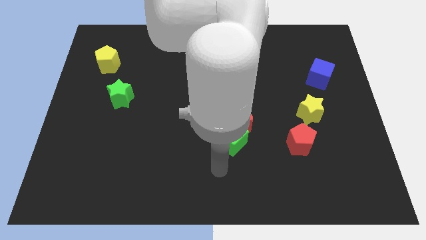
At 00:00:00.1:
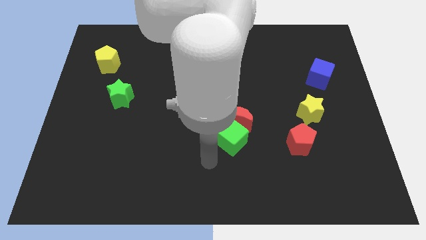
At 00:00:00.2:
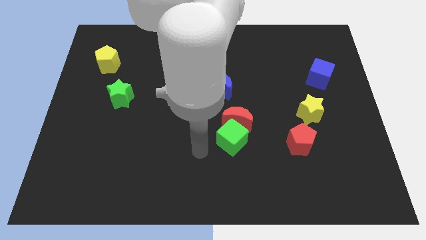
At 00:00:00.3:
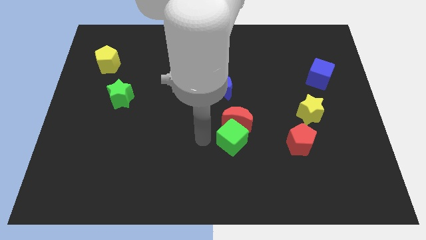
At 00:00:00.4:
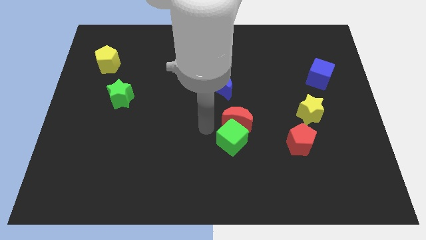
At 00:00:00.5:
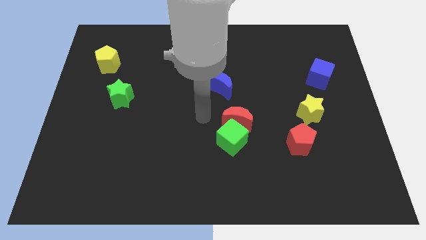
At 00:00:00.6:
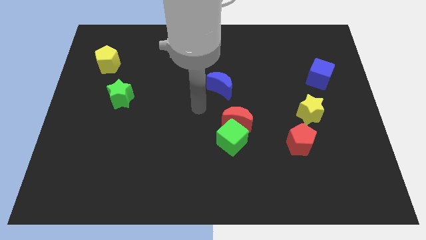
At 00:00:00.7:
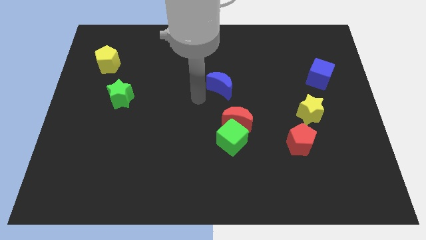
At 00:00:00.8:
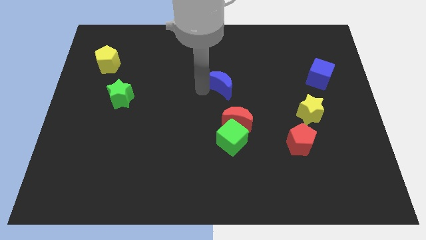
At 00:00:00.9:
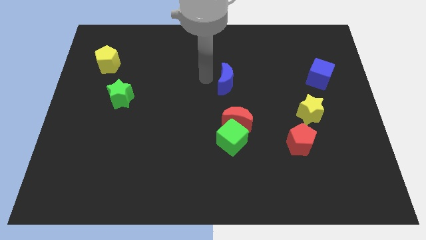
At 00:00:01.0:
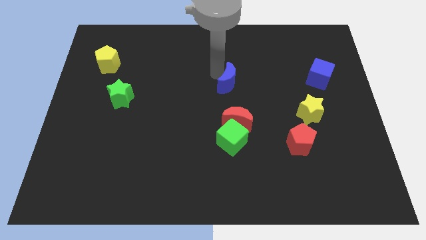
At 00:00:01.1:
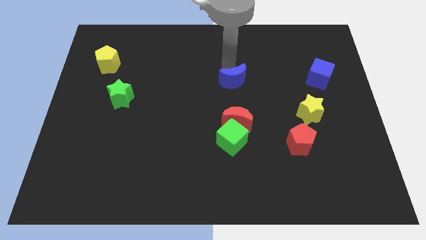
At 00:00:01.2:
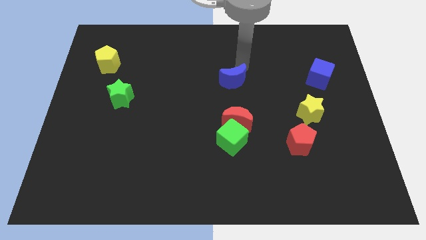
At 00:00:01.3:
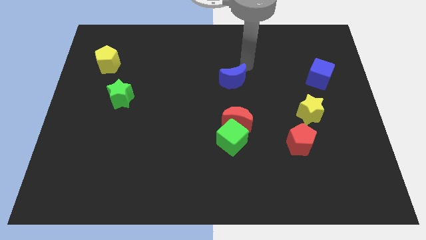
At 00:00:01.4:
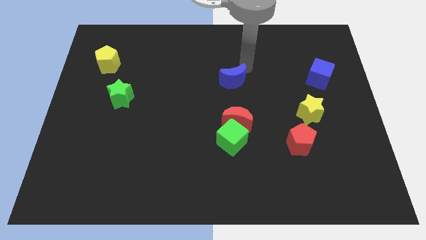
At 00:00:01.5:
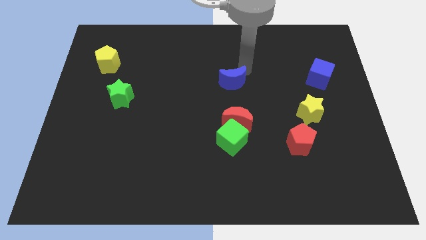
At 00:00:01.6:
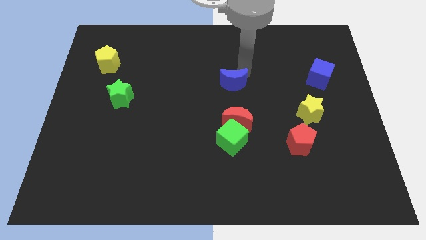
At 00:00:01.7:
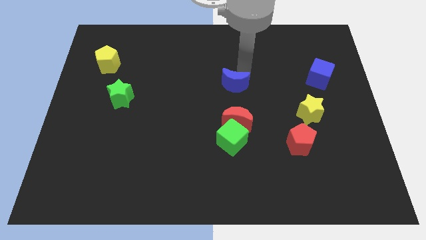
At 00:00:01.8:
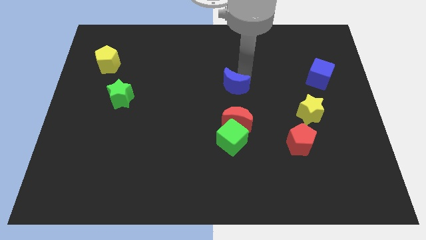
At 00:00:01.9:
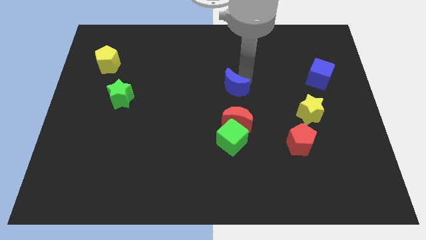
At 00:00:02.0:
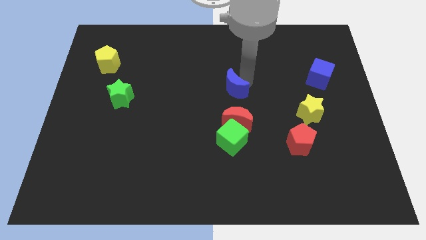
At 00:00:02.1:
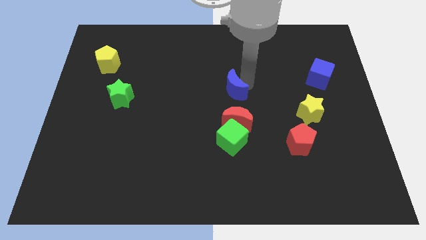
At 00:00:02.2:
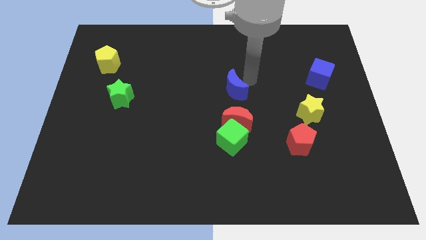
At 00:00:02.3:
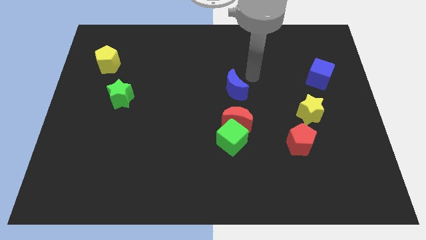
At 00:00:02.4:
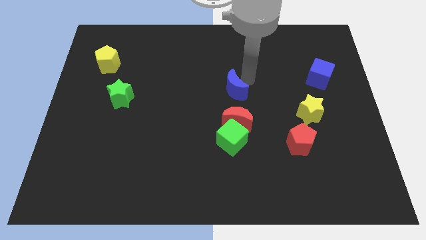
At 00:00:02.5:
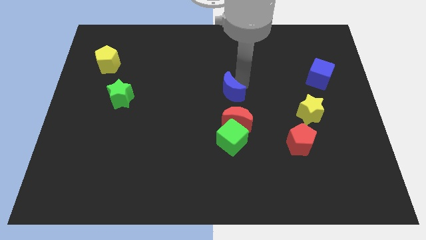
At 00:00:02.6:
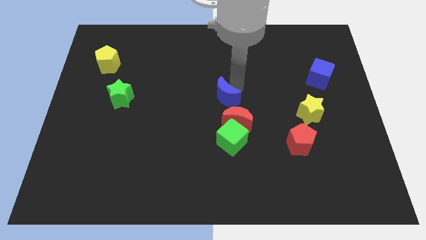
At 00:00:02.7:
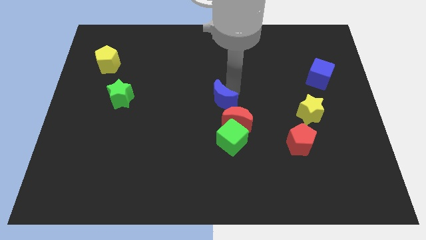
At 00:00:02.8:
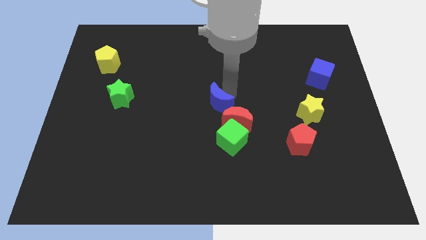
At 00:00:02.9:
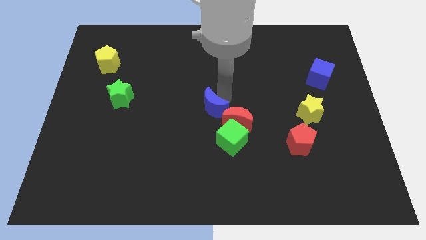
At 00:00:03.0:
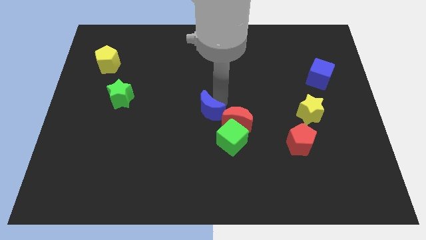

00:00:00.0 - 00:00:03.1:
slide the blue moon down a little

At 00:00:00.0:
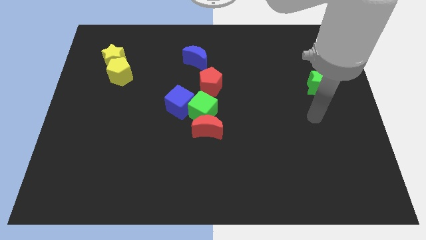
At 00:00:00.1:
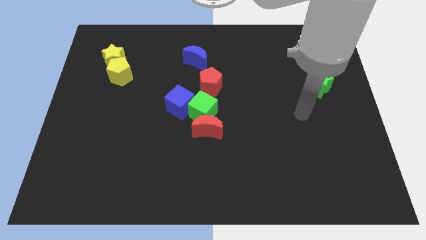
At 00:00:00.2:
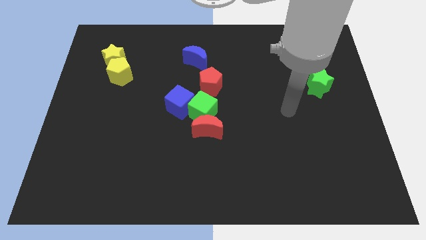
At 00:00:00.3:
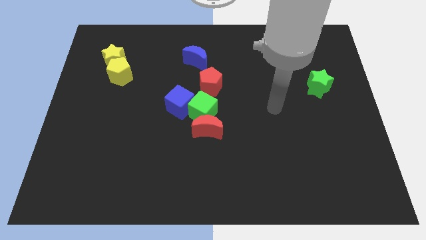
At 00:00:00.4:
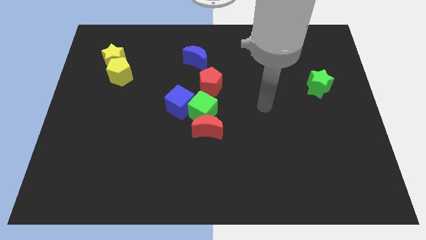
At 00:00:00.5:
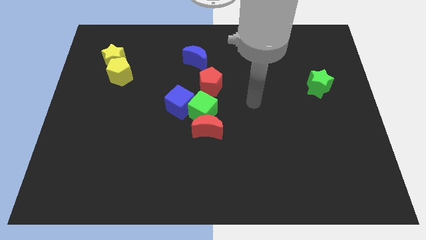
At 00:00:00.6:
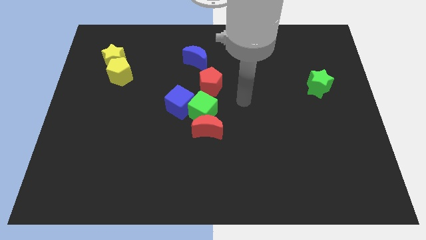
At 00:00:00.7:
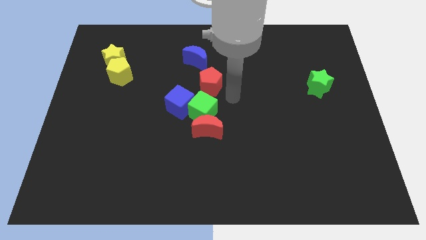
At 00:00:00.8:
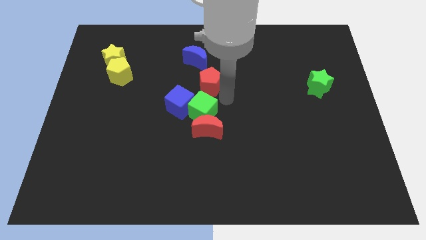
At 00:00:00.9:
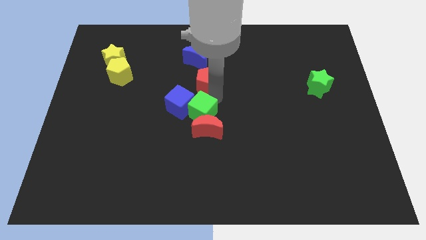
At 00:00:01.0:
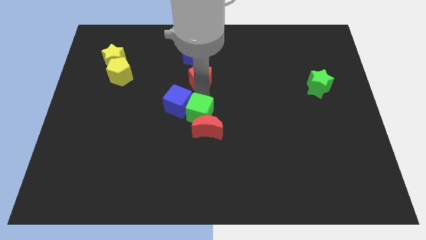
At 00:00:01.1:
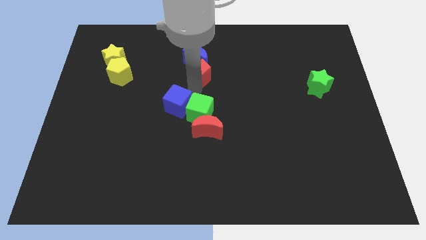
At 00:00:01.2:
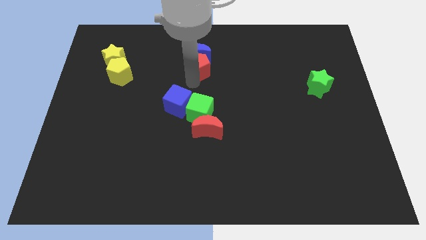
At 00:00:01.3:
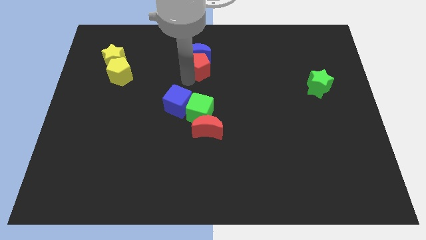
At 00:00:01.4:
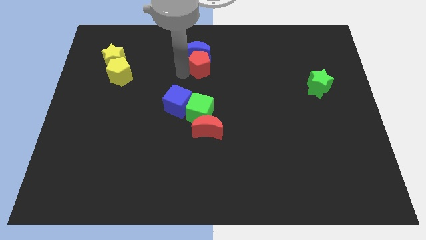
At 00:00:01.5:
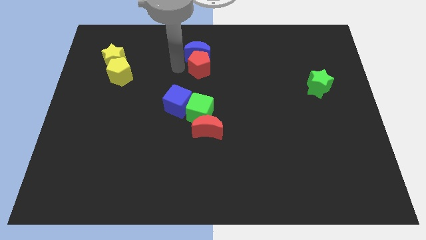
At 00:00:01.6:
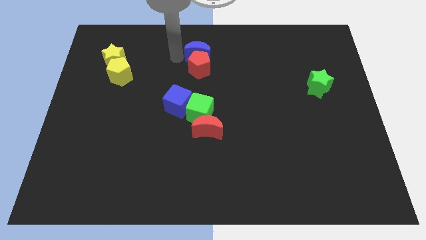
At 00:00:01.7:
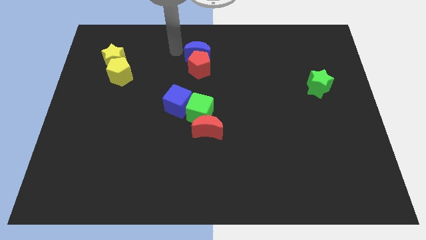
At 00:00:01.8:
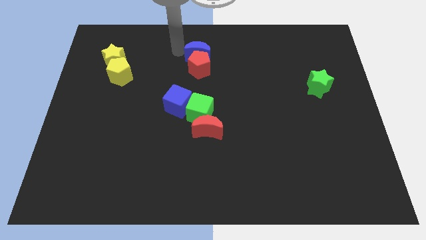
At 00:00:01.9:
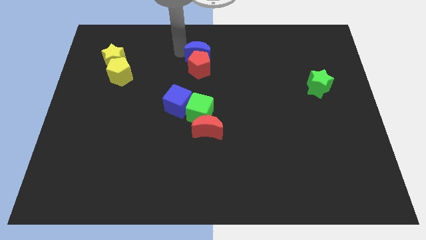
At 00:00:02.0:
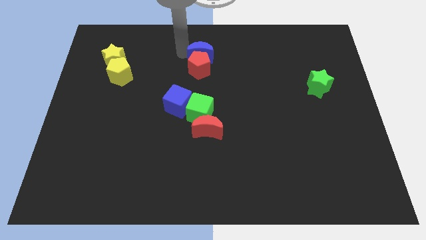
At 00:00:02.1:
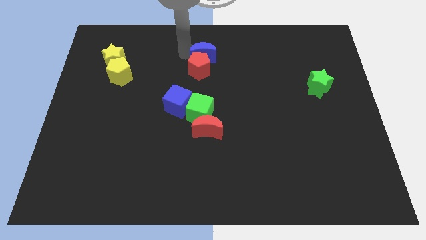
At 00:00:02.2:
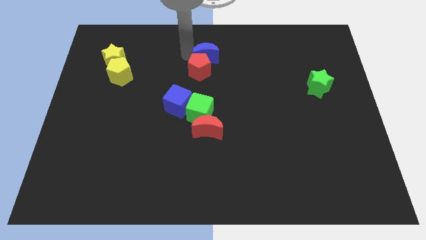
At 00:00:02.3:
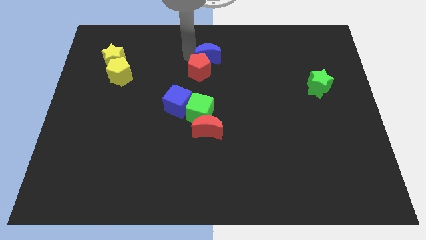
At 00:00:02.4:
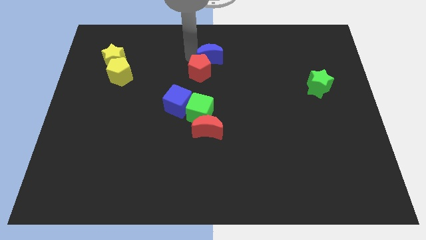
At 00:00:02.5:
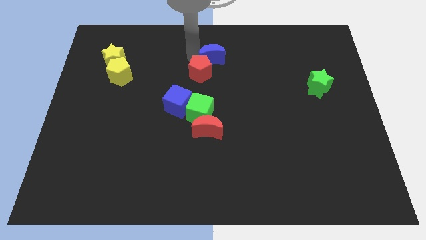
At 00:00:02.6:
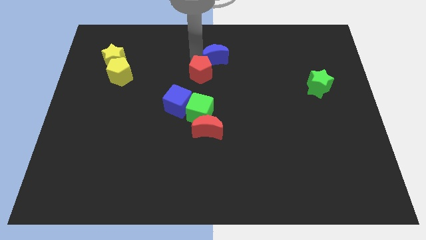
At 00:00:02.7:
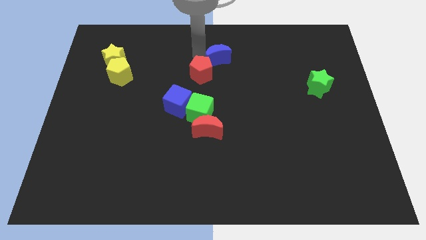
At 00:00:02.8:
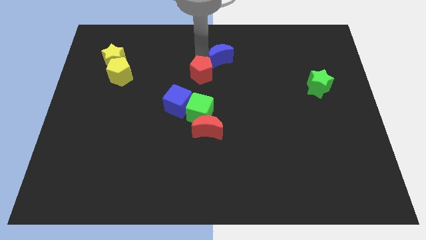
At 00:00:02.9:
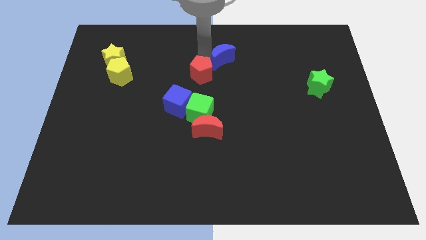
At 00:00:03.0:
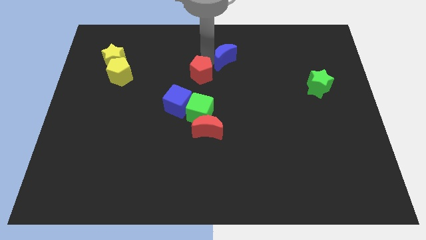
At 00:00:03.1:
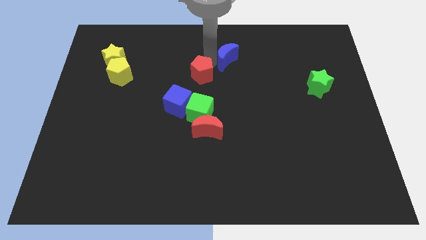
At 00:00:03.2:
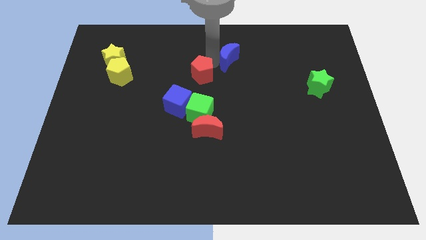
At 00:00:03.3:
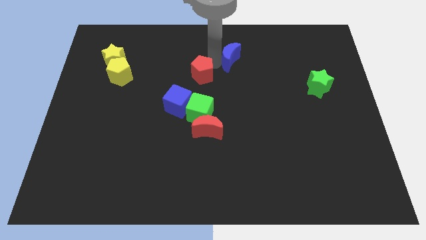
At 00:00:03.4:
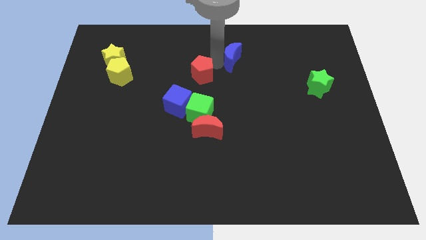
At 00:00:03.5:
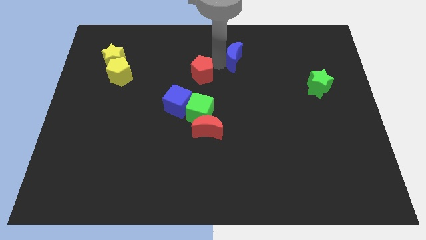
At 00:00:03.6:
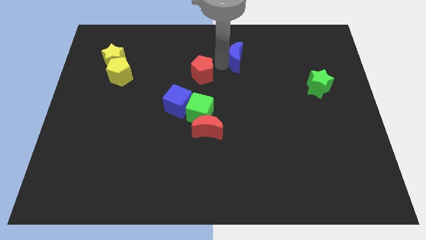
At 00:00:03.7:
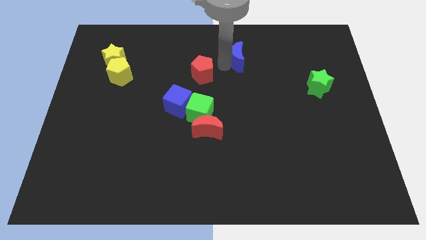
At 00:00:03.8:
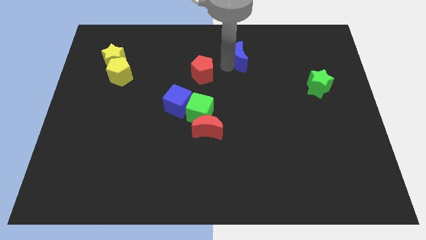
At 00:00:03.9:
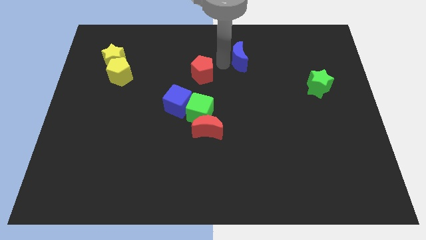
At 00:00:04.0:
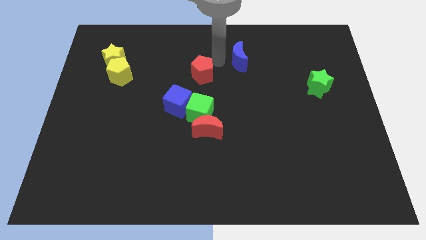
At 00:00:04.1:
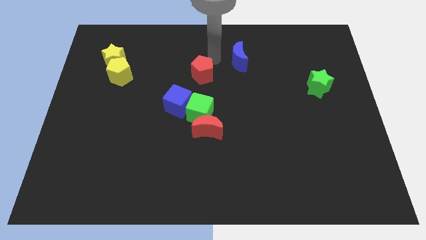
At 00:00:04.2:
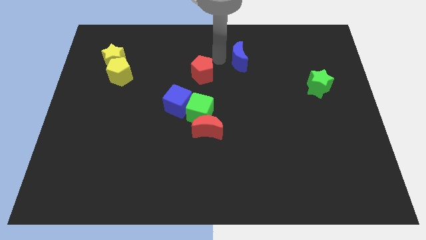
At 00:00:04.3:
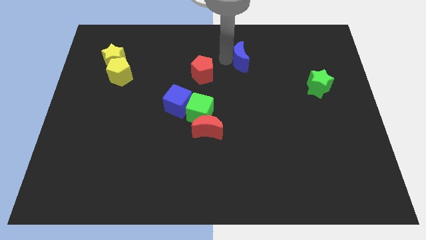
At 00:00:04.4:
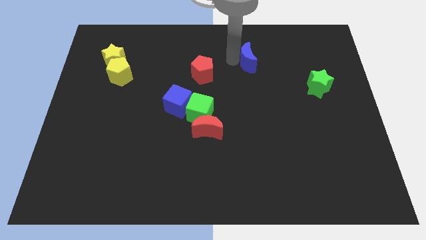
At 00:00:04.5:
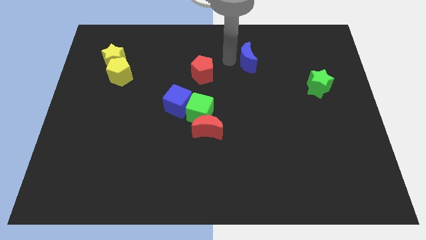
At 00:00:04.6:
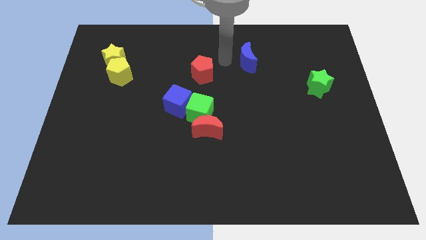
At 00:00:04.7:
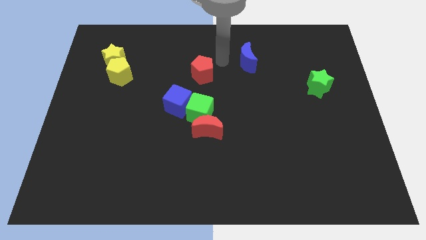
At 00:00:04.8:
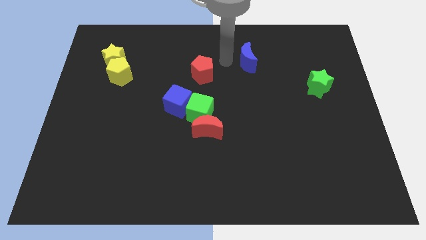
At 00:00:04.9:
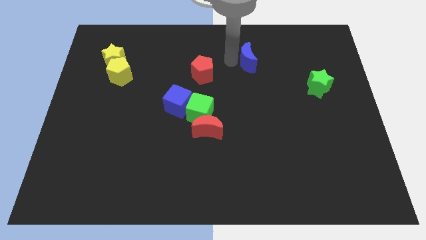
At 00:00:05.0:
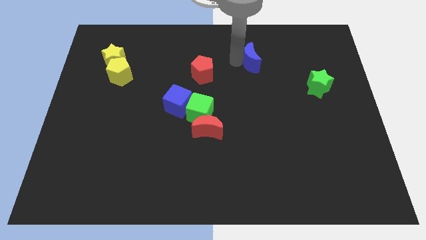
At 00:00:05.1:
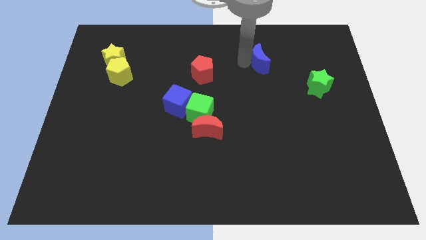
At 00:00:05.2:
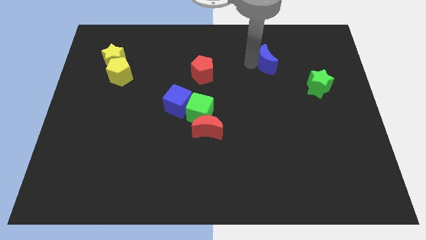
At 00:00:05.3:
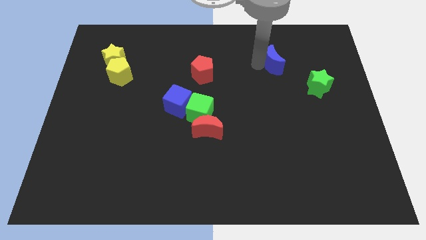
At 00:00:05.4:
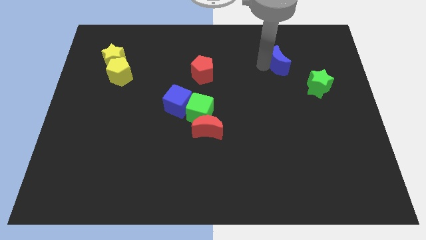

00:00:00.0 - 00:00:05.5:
move the blue moon to the right

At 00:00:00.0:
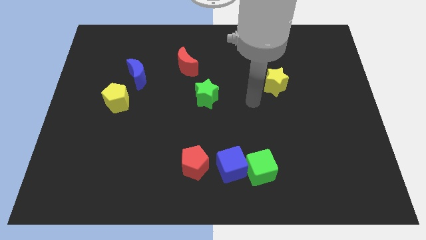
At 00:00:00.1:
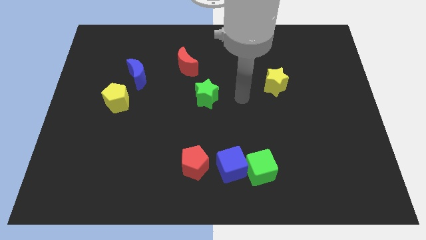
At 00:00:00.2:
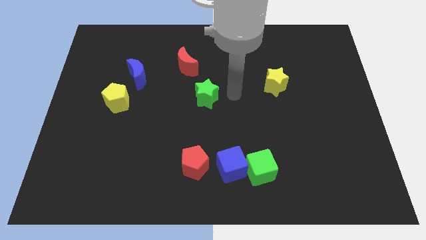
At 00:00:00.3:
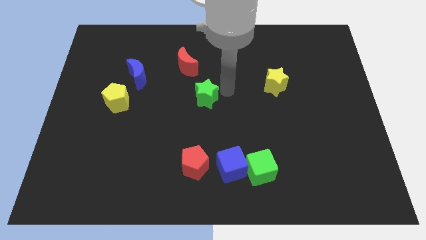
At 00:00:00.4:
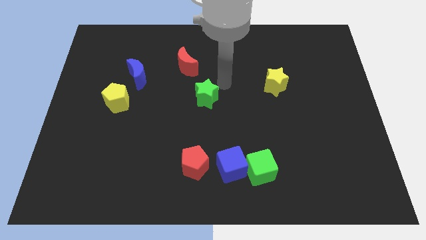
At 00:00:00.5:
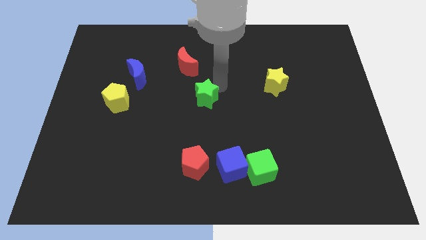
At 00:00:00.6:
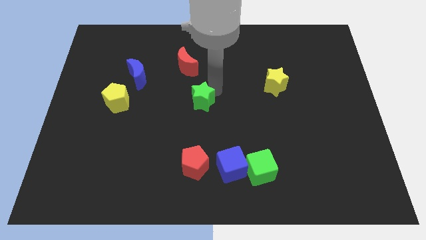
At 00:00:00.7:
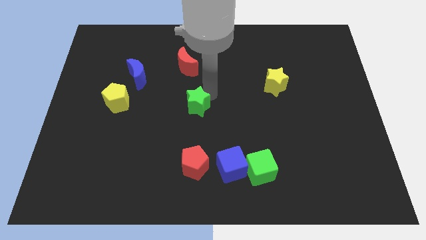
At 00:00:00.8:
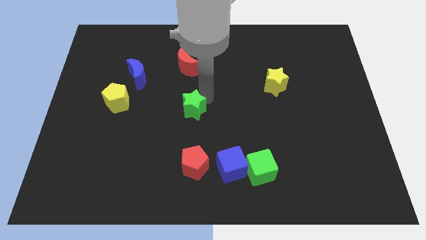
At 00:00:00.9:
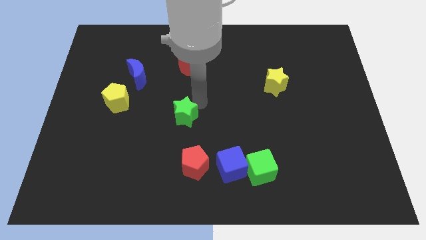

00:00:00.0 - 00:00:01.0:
move the green star a little downwards and then left
